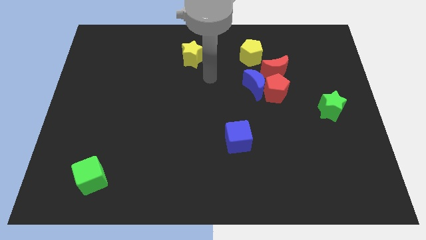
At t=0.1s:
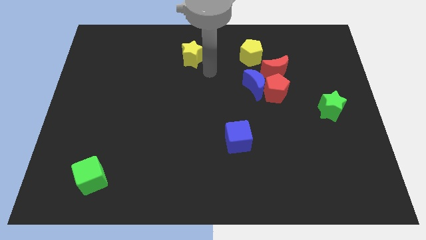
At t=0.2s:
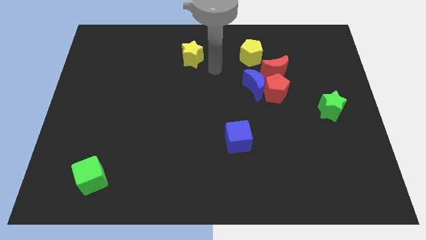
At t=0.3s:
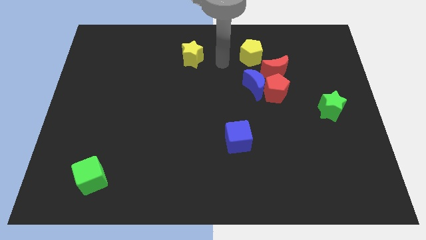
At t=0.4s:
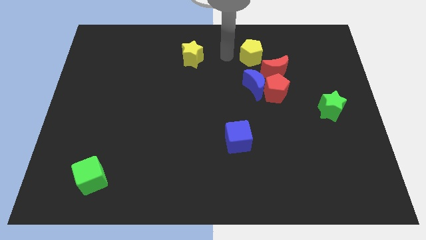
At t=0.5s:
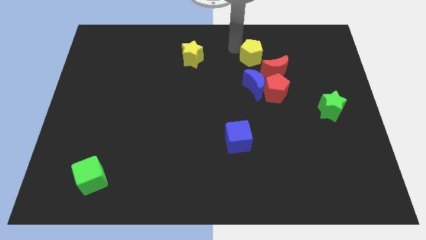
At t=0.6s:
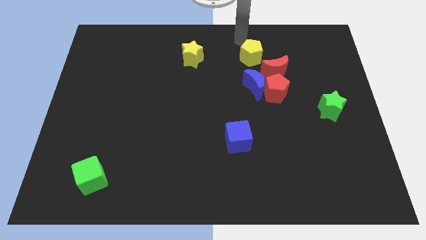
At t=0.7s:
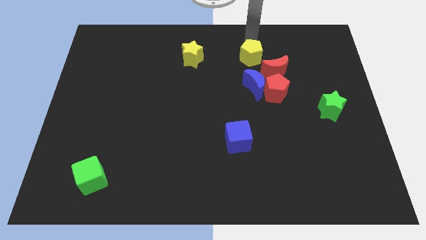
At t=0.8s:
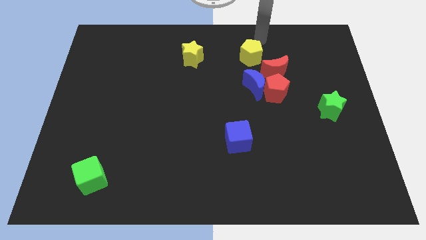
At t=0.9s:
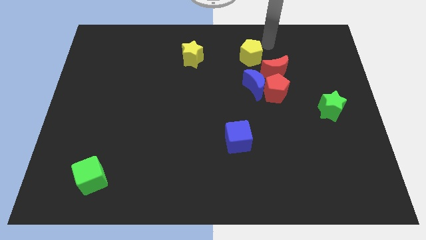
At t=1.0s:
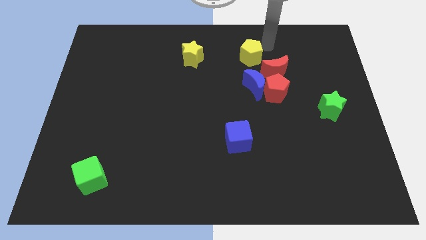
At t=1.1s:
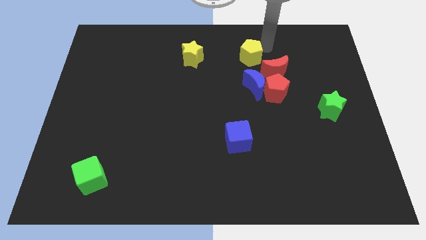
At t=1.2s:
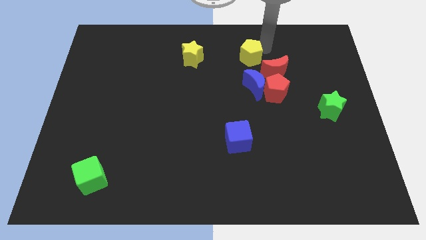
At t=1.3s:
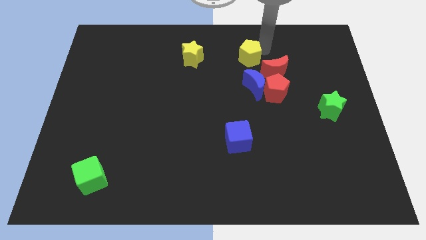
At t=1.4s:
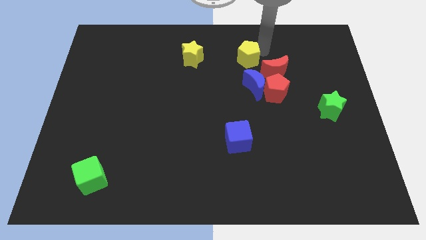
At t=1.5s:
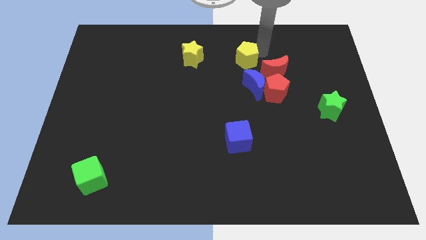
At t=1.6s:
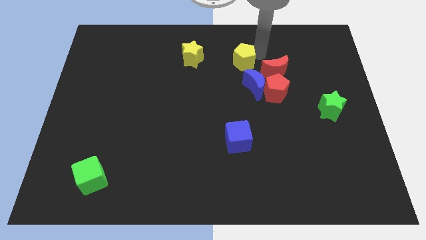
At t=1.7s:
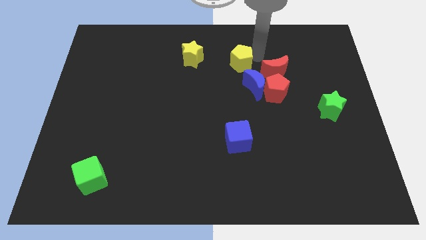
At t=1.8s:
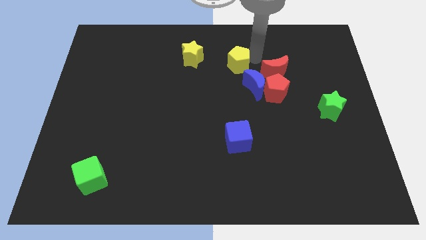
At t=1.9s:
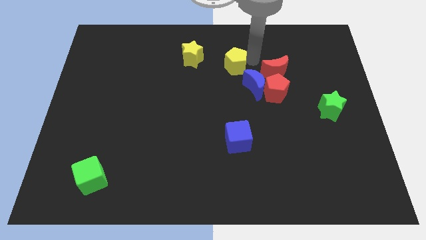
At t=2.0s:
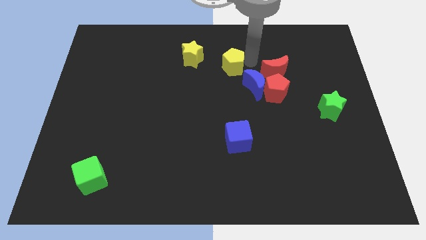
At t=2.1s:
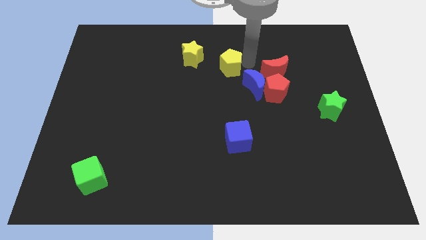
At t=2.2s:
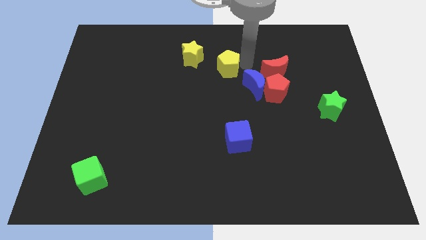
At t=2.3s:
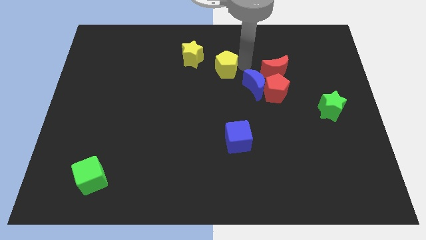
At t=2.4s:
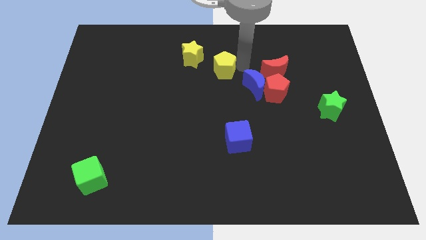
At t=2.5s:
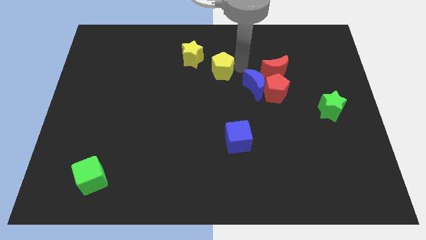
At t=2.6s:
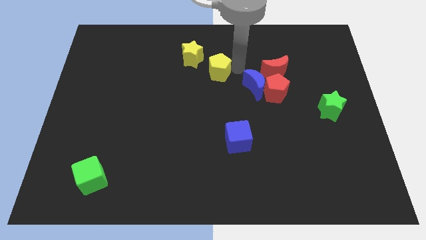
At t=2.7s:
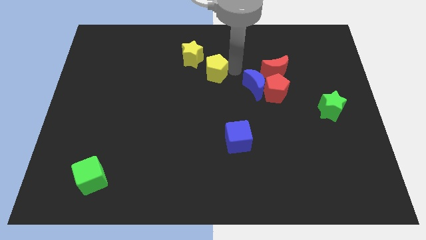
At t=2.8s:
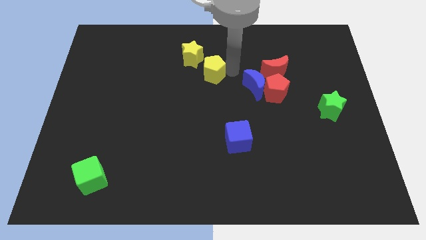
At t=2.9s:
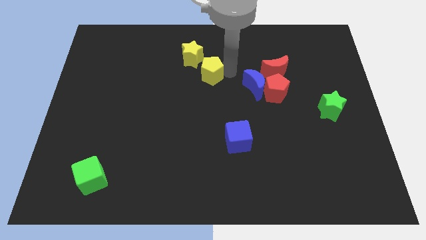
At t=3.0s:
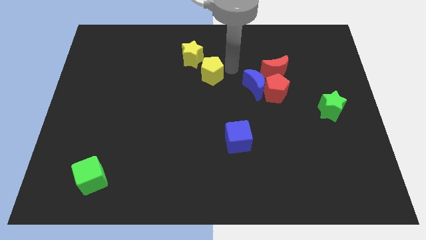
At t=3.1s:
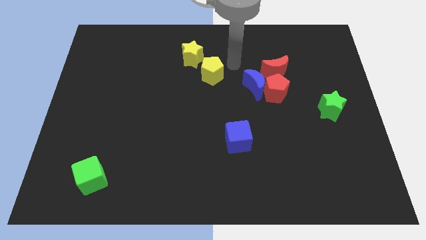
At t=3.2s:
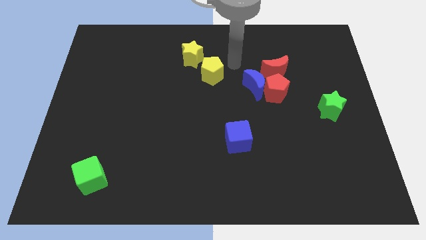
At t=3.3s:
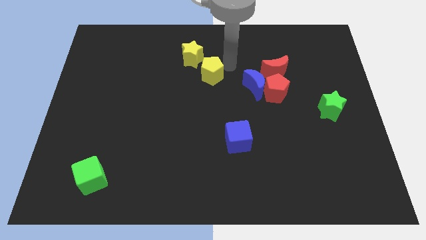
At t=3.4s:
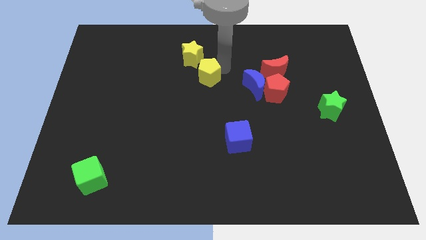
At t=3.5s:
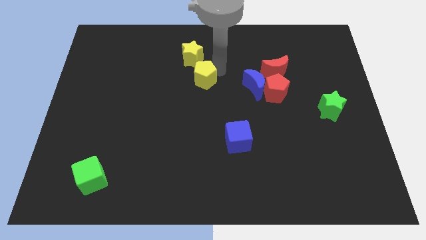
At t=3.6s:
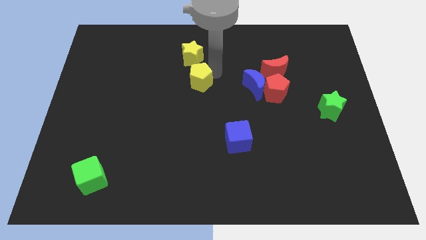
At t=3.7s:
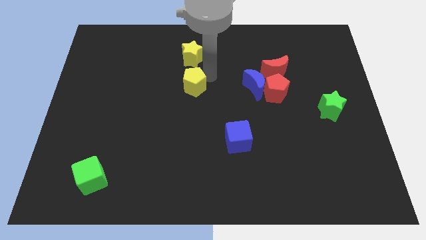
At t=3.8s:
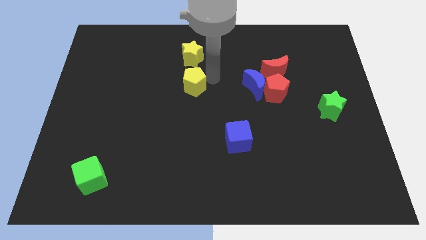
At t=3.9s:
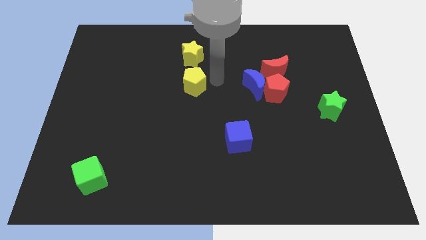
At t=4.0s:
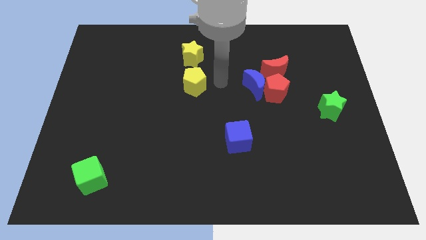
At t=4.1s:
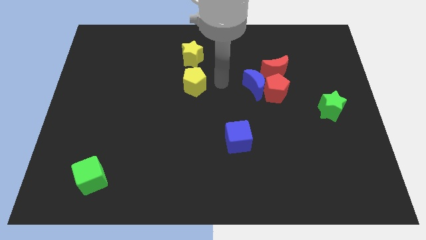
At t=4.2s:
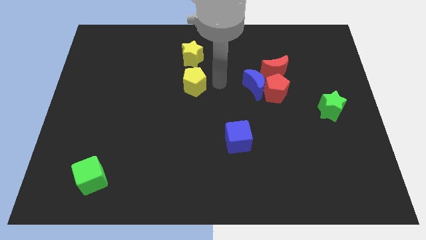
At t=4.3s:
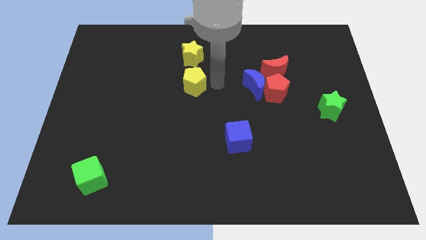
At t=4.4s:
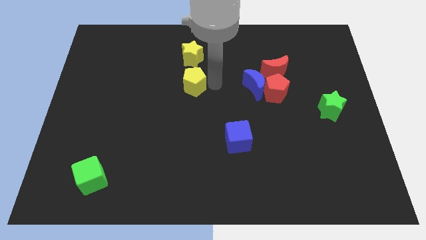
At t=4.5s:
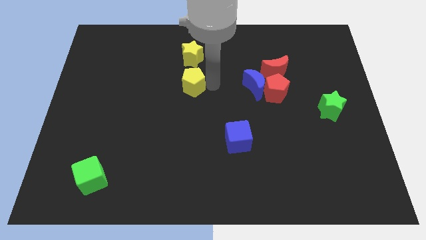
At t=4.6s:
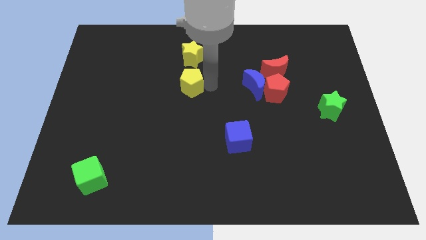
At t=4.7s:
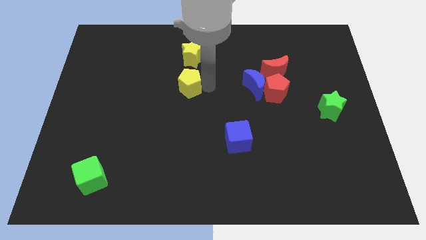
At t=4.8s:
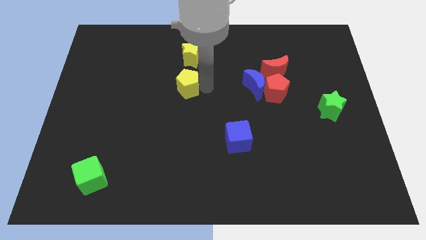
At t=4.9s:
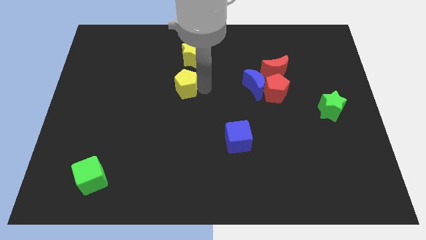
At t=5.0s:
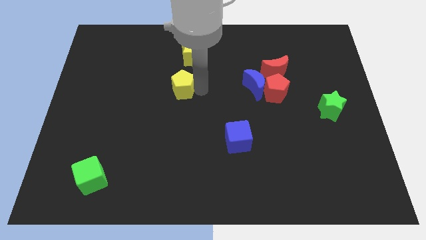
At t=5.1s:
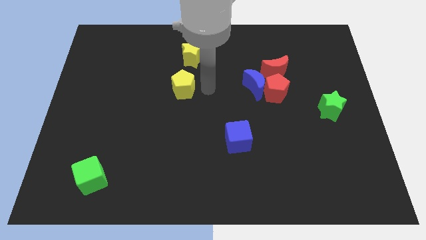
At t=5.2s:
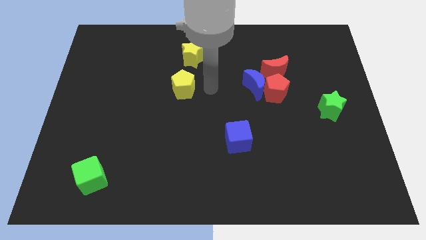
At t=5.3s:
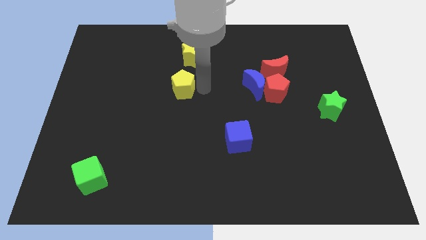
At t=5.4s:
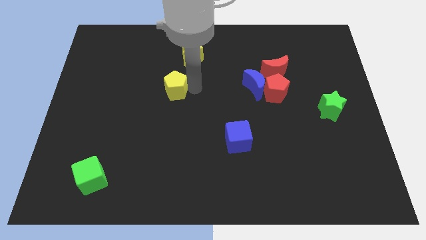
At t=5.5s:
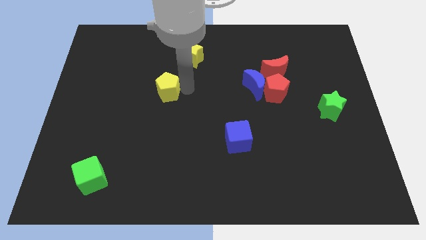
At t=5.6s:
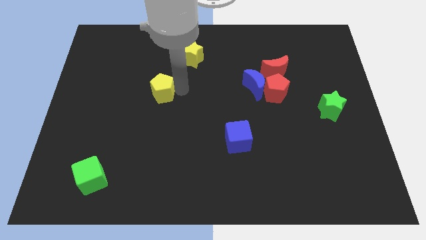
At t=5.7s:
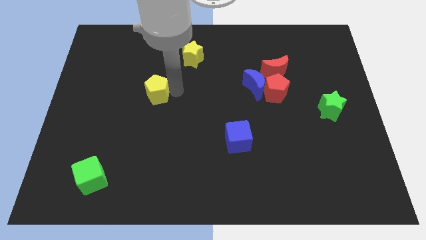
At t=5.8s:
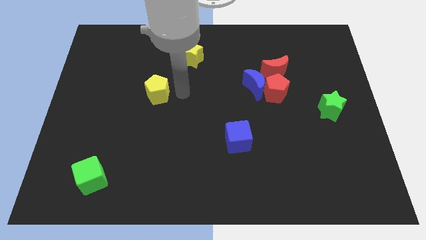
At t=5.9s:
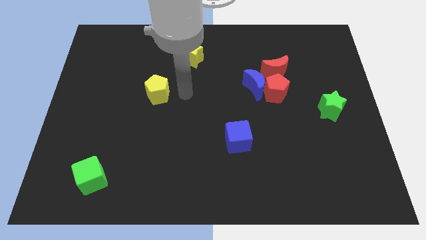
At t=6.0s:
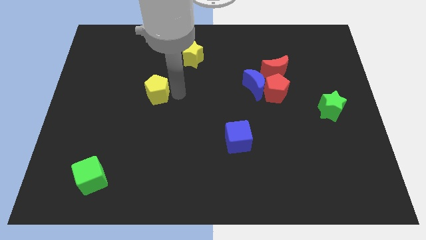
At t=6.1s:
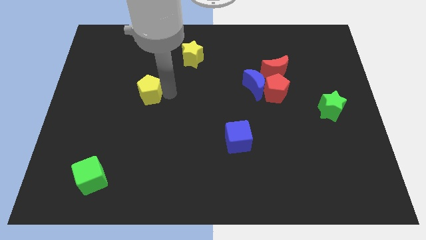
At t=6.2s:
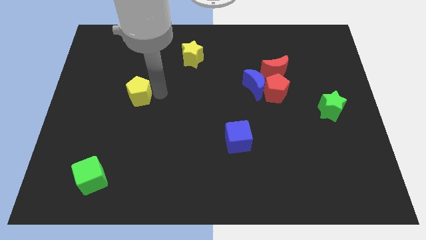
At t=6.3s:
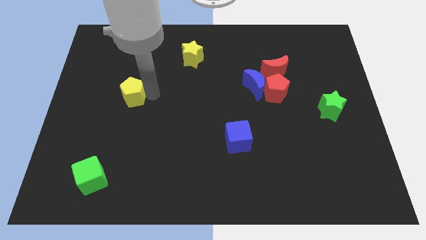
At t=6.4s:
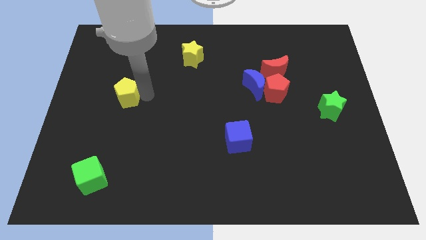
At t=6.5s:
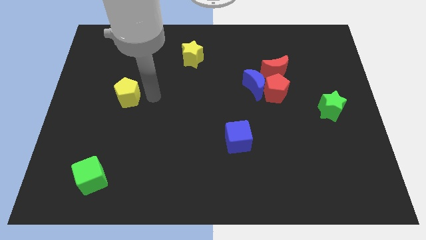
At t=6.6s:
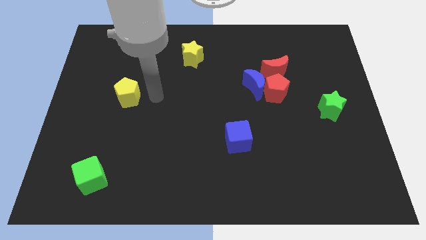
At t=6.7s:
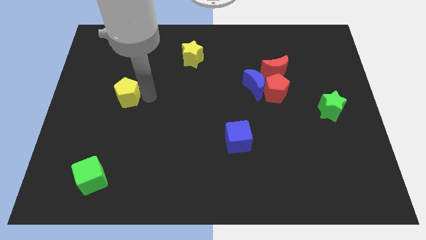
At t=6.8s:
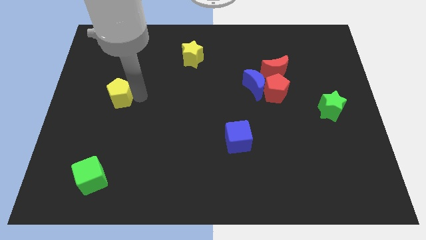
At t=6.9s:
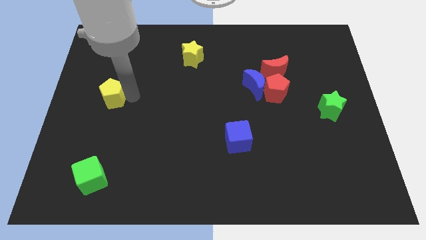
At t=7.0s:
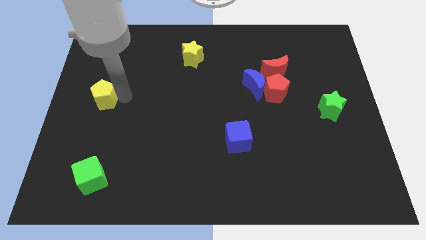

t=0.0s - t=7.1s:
slide the yellow pentagon to the left side of the board
